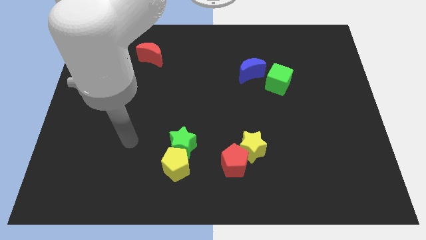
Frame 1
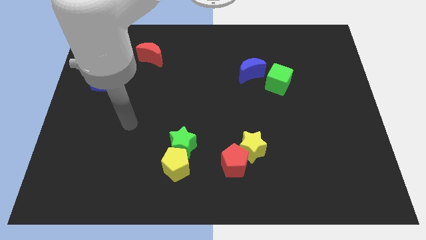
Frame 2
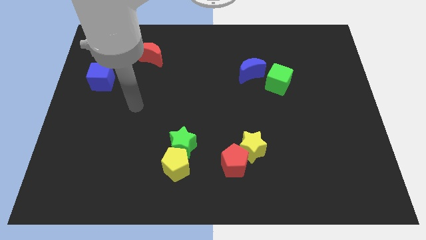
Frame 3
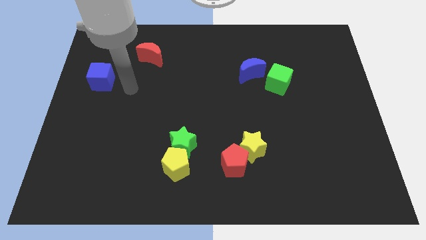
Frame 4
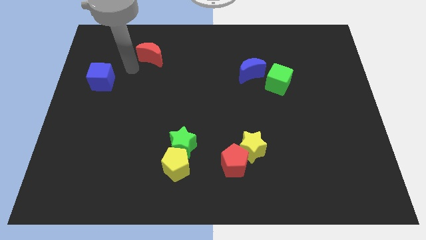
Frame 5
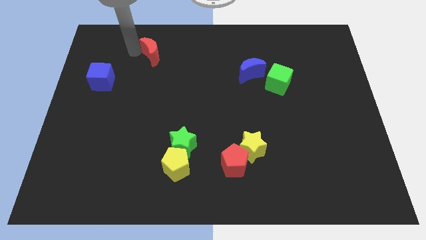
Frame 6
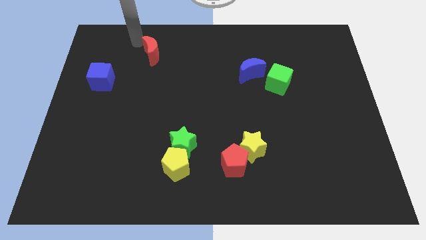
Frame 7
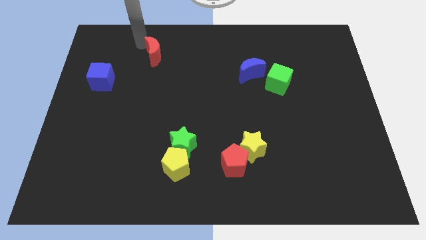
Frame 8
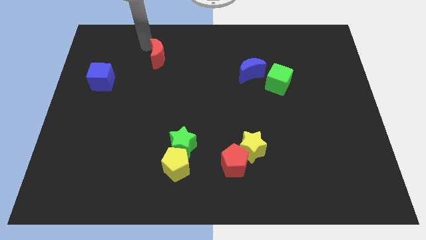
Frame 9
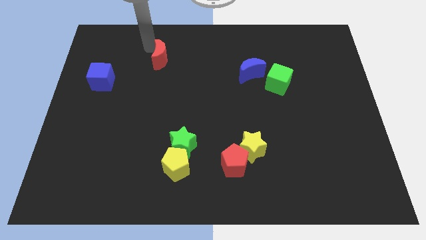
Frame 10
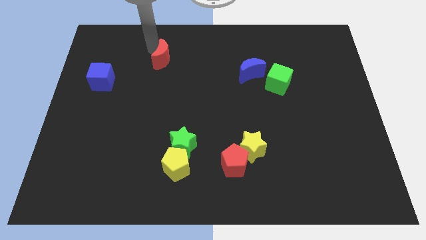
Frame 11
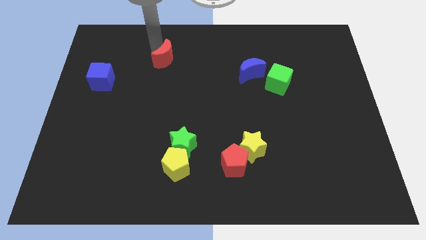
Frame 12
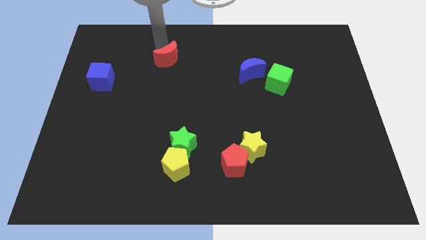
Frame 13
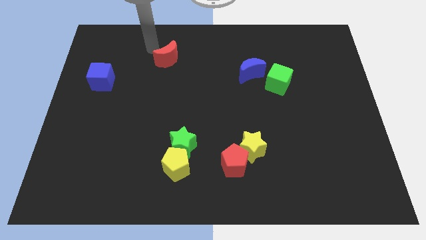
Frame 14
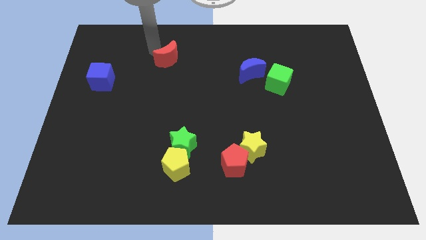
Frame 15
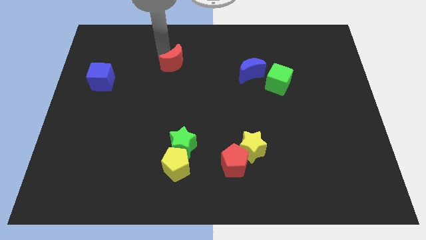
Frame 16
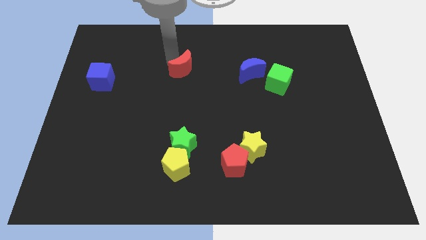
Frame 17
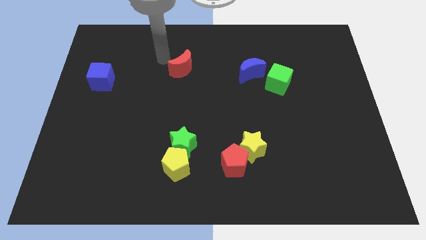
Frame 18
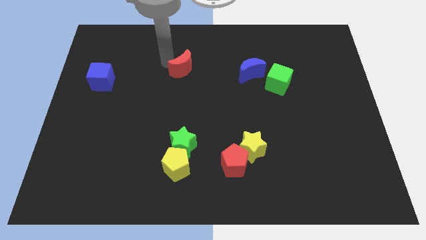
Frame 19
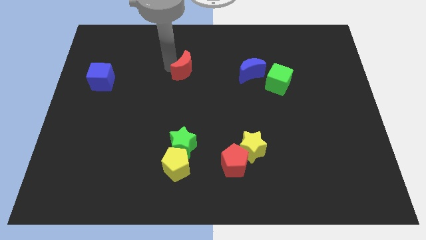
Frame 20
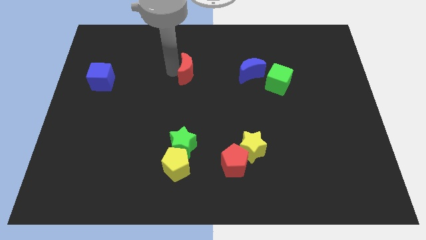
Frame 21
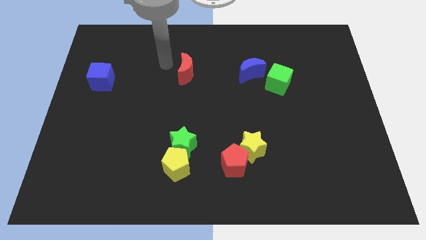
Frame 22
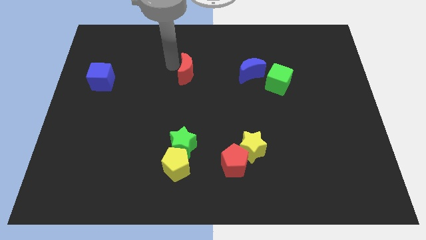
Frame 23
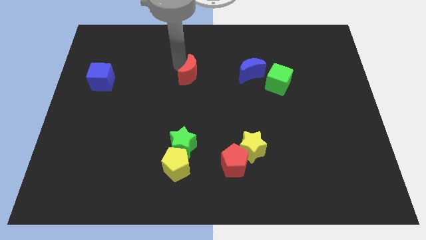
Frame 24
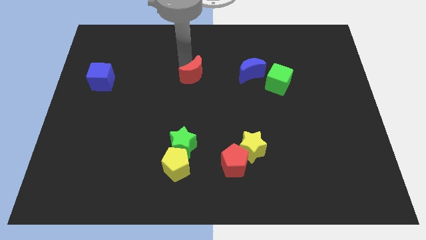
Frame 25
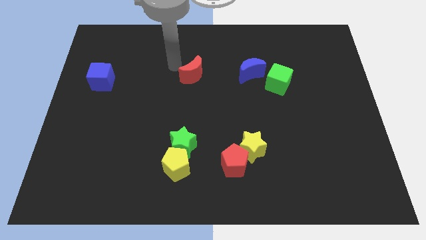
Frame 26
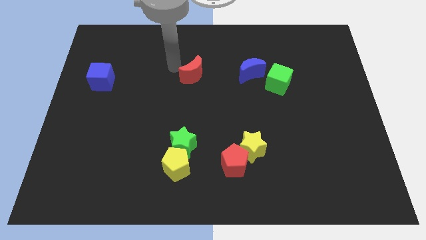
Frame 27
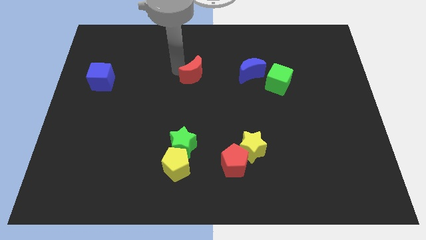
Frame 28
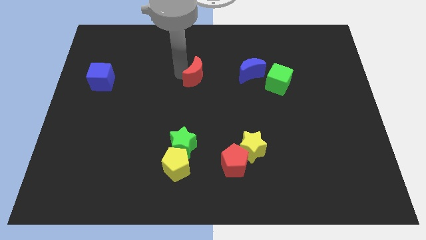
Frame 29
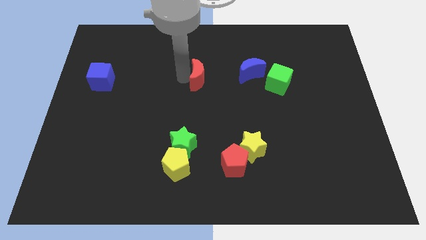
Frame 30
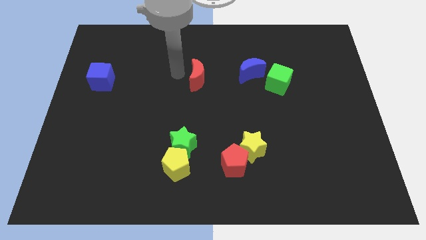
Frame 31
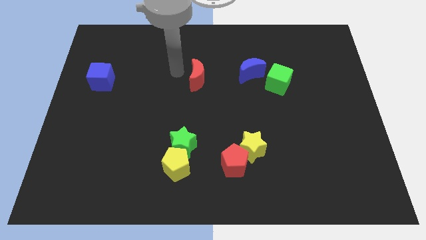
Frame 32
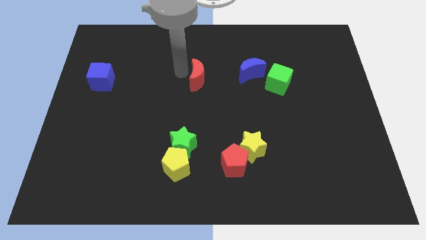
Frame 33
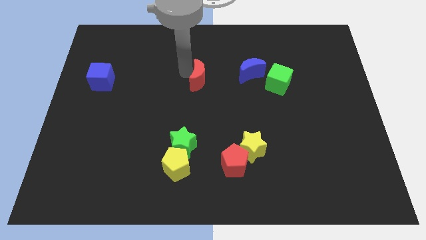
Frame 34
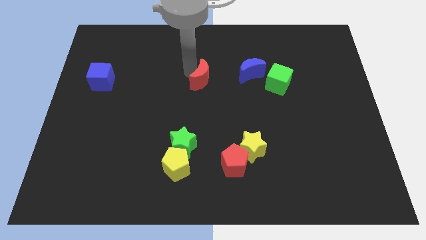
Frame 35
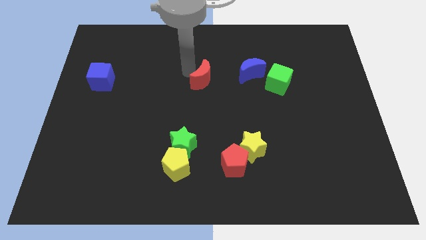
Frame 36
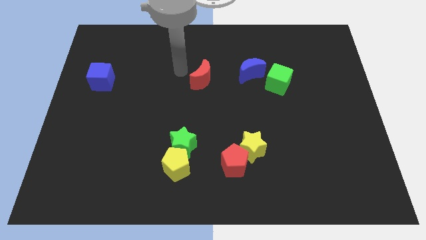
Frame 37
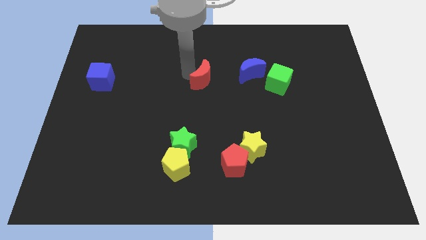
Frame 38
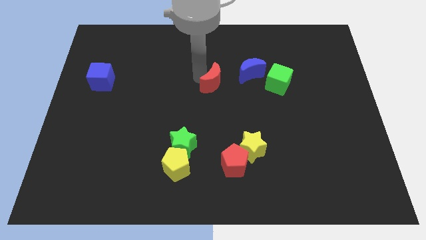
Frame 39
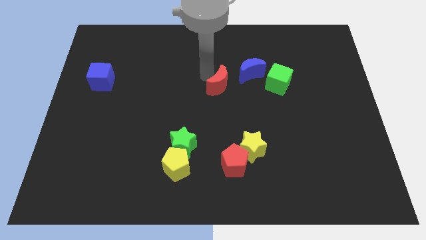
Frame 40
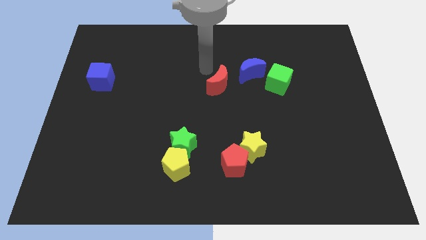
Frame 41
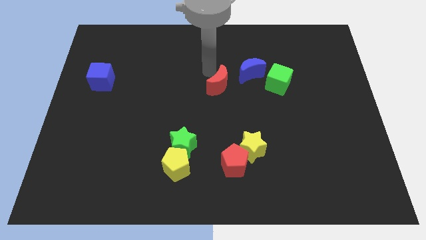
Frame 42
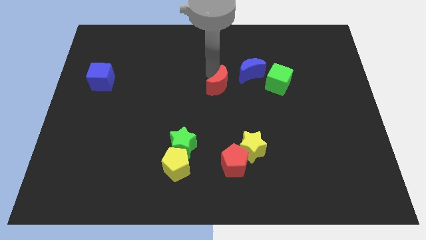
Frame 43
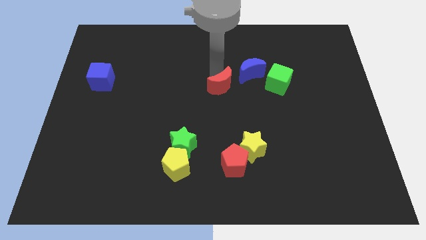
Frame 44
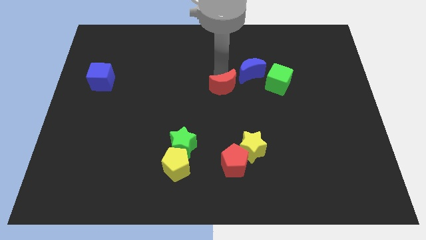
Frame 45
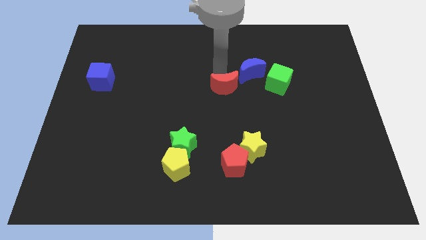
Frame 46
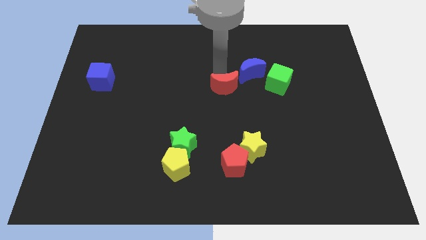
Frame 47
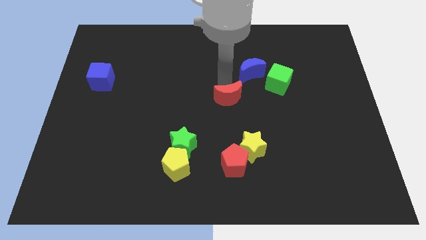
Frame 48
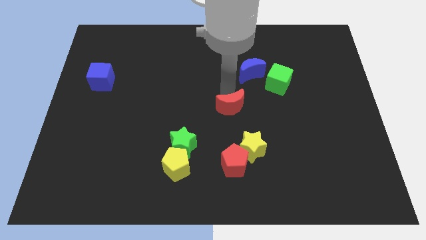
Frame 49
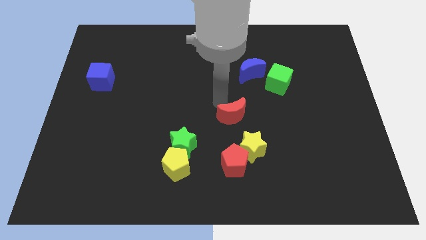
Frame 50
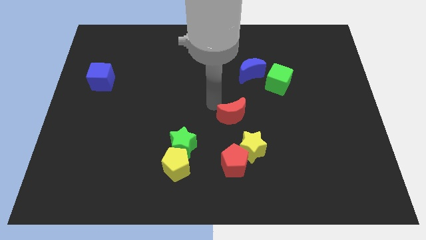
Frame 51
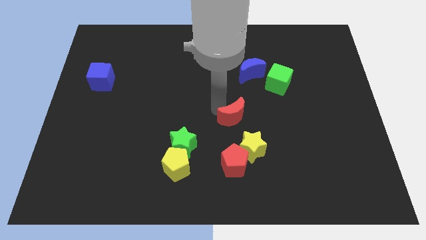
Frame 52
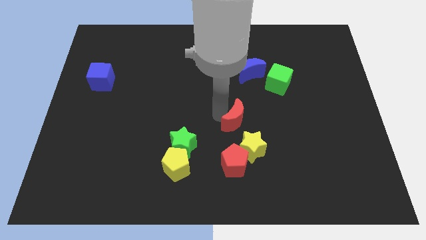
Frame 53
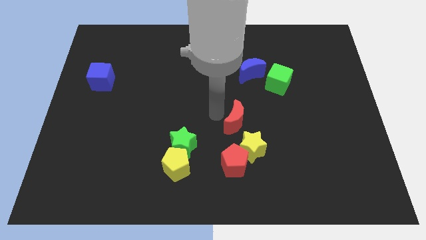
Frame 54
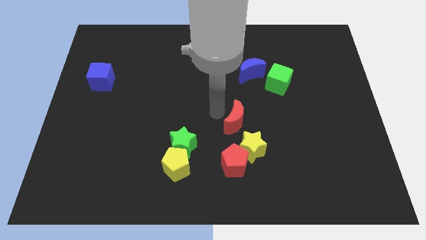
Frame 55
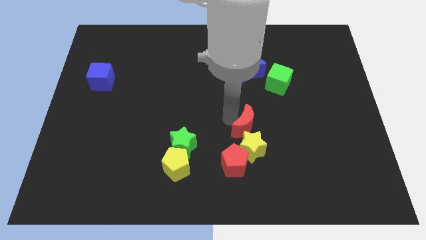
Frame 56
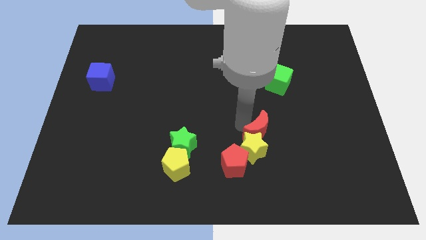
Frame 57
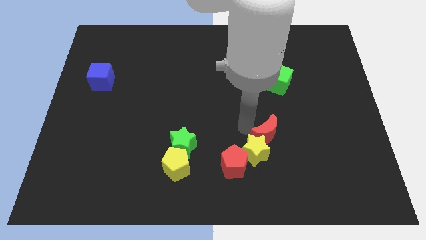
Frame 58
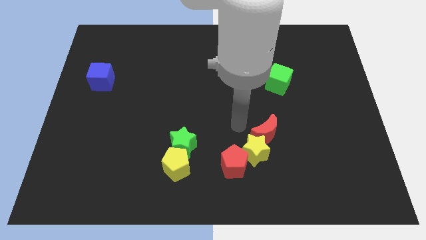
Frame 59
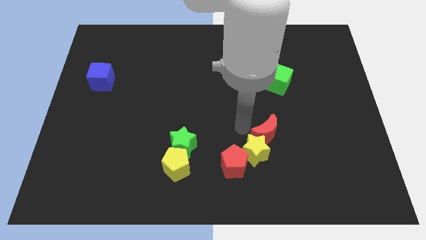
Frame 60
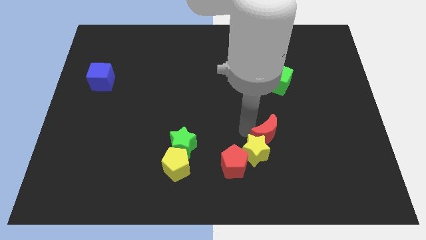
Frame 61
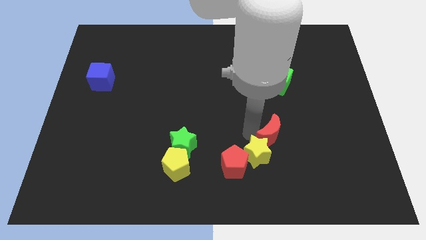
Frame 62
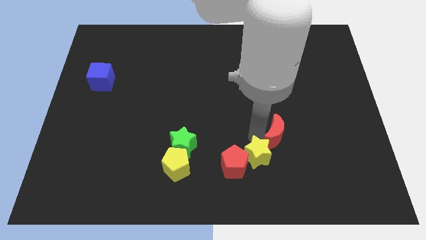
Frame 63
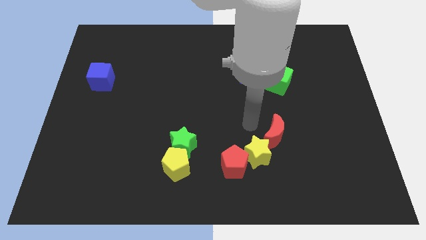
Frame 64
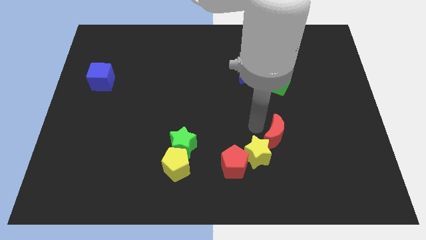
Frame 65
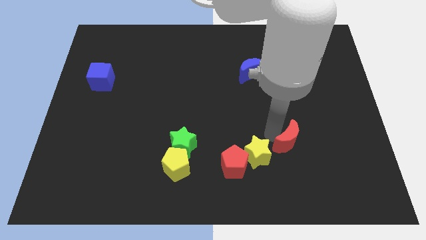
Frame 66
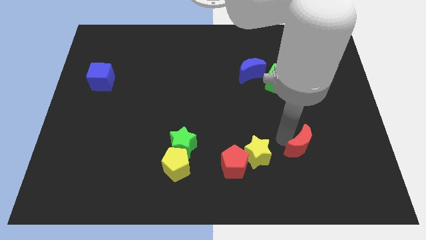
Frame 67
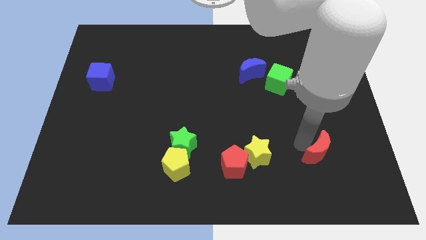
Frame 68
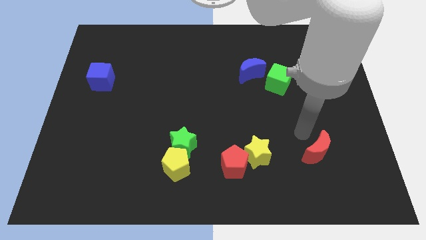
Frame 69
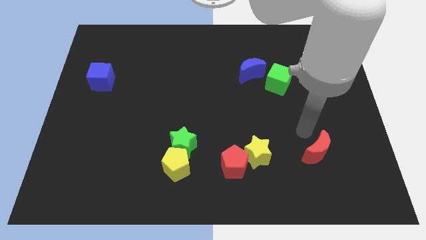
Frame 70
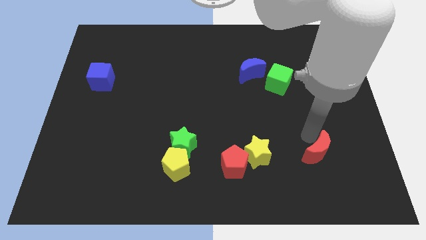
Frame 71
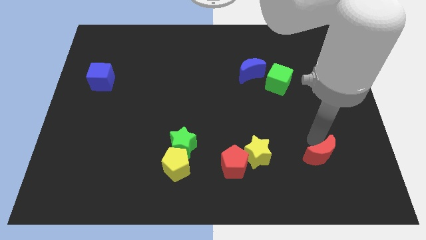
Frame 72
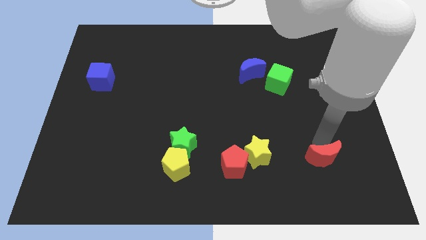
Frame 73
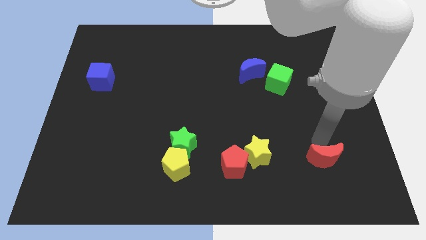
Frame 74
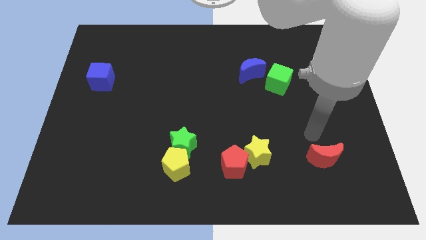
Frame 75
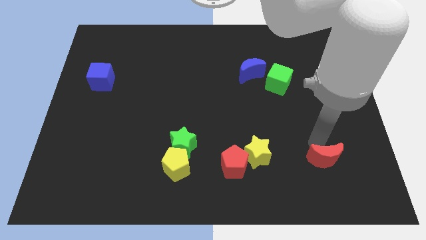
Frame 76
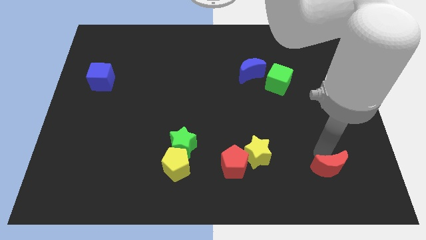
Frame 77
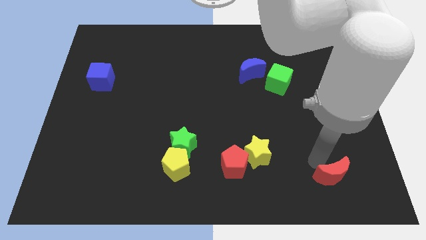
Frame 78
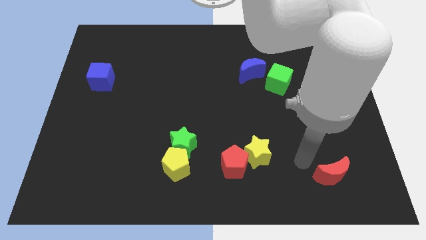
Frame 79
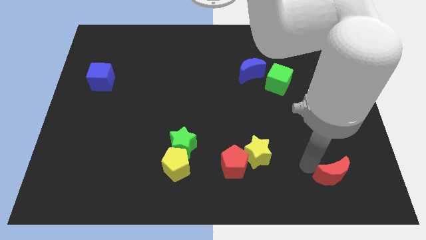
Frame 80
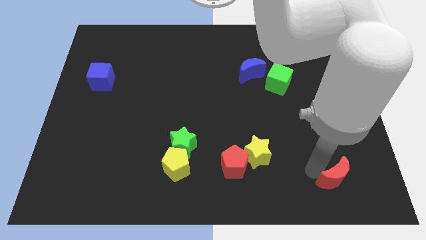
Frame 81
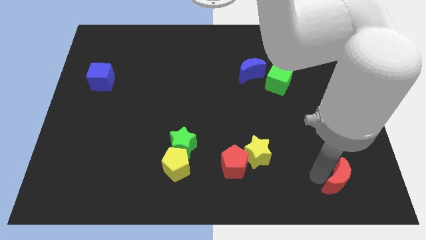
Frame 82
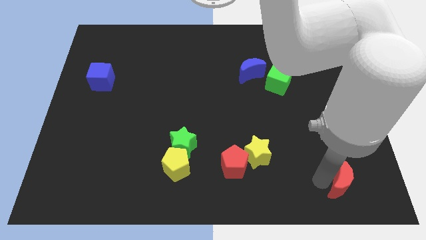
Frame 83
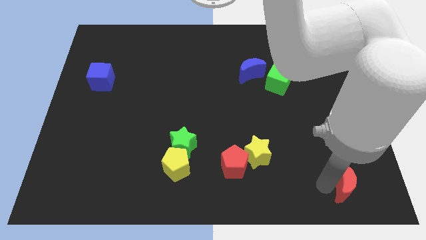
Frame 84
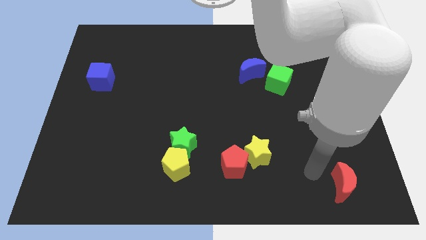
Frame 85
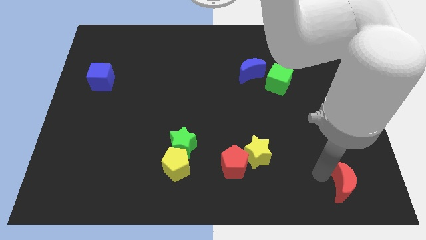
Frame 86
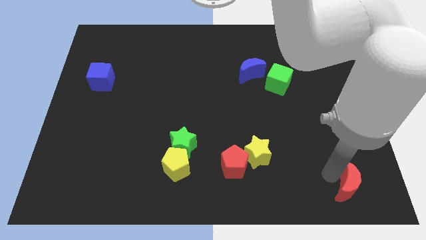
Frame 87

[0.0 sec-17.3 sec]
push the red moon to the bottom right
